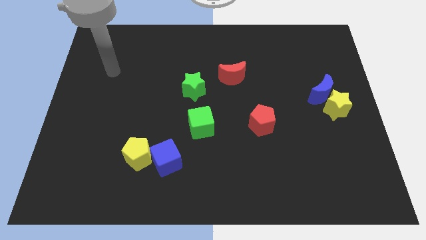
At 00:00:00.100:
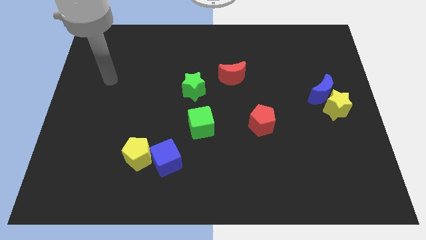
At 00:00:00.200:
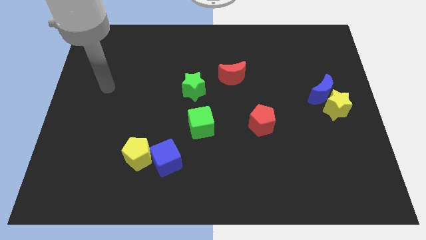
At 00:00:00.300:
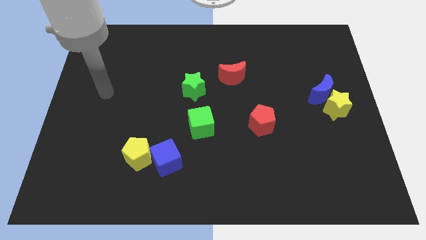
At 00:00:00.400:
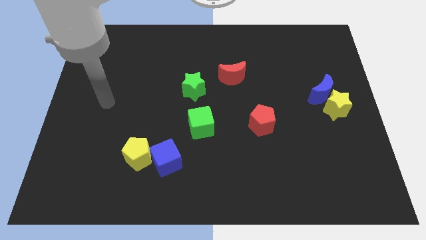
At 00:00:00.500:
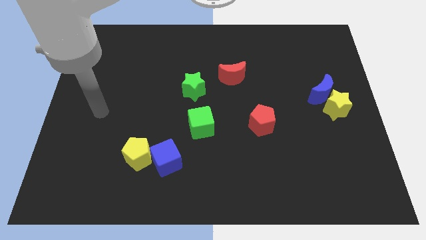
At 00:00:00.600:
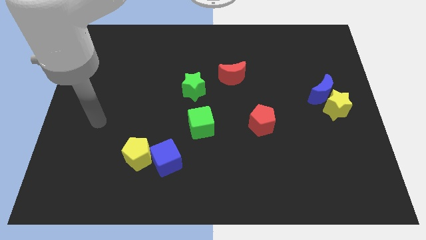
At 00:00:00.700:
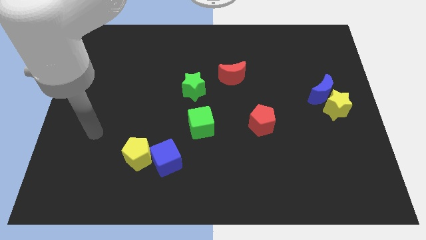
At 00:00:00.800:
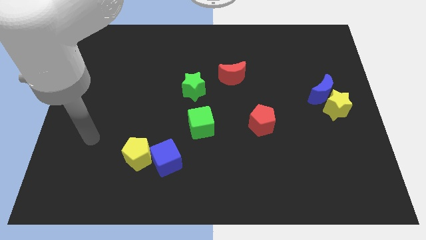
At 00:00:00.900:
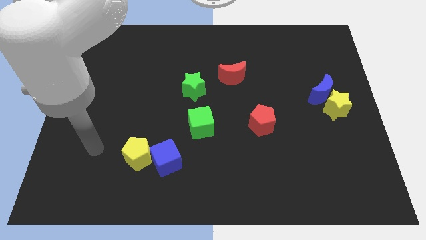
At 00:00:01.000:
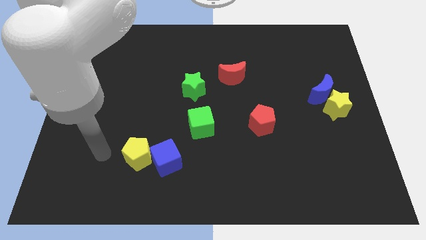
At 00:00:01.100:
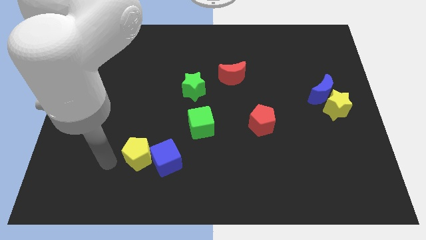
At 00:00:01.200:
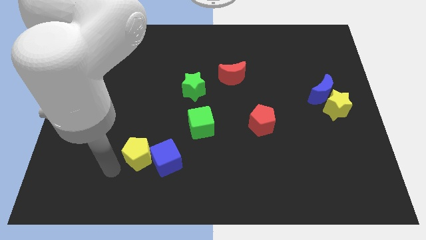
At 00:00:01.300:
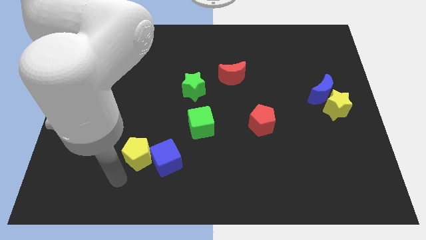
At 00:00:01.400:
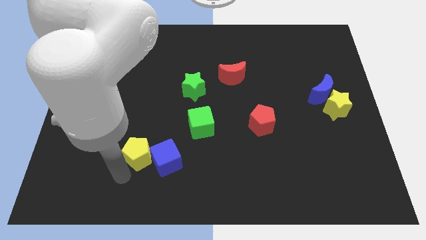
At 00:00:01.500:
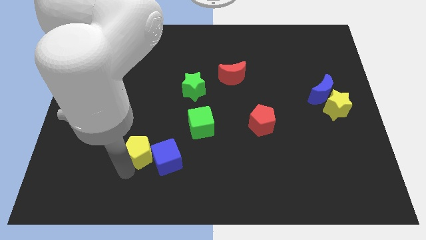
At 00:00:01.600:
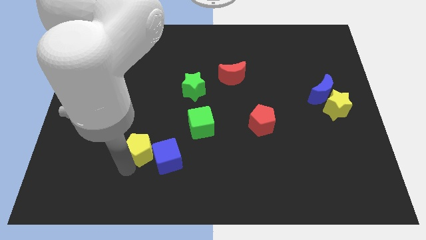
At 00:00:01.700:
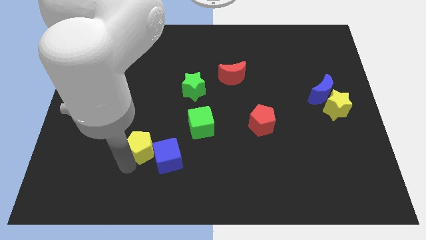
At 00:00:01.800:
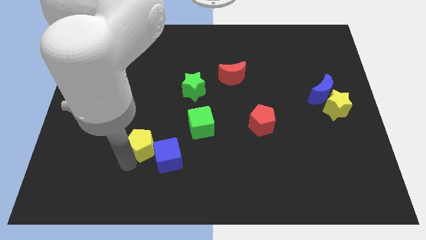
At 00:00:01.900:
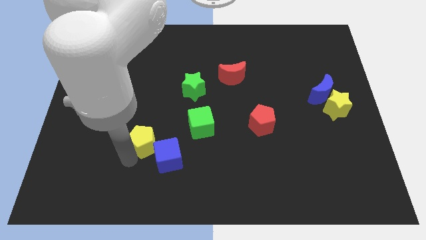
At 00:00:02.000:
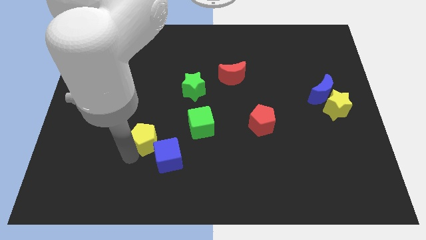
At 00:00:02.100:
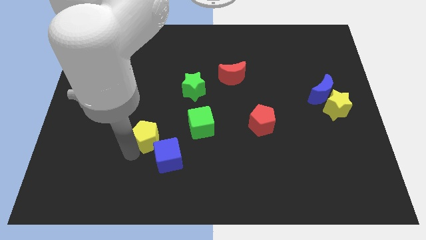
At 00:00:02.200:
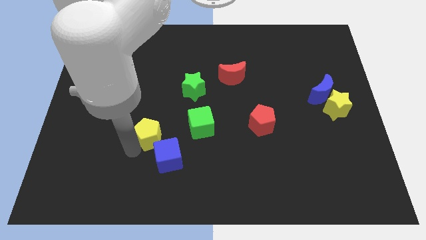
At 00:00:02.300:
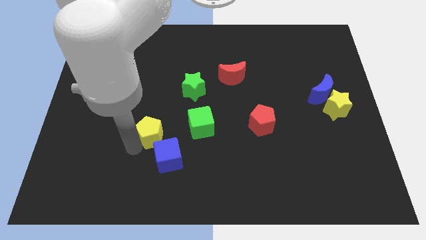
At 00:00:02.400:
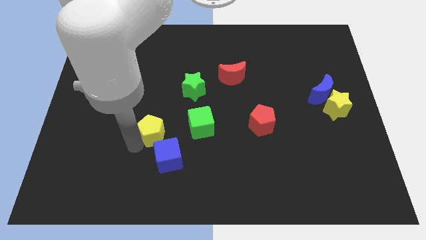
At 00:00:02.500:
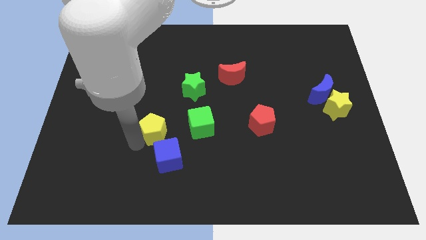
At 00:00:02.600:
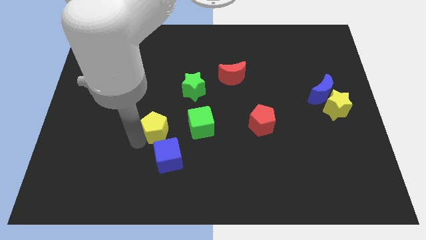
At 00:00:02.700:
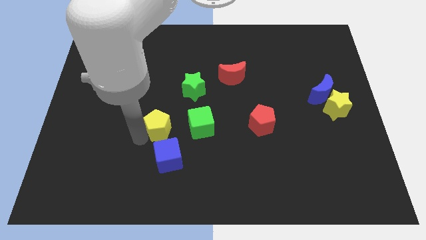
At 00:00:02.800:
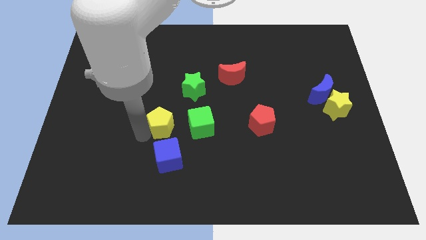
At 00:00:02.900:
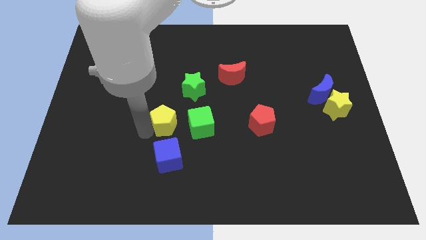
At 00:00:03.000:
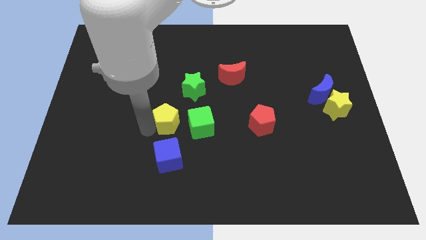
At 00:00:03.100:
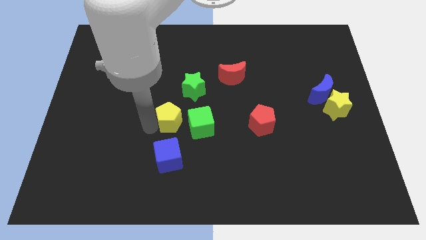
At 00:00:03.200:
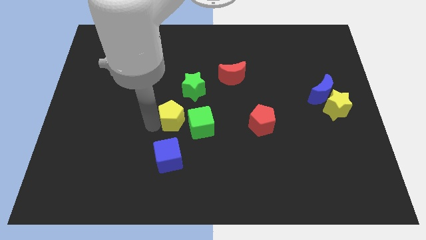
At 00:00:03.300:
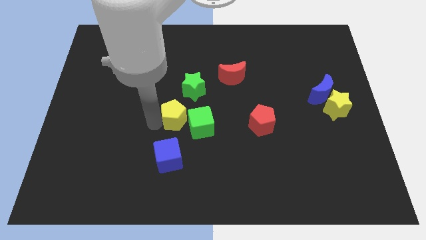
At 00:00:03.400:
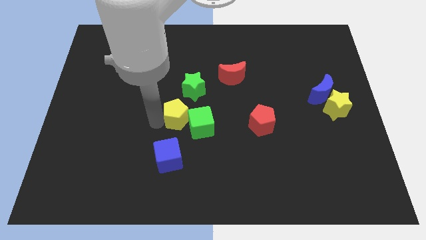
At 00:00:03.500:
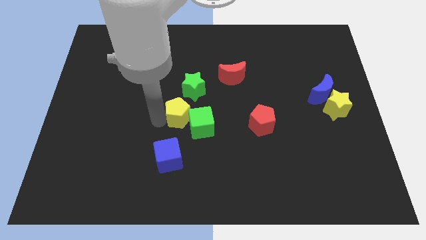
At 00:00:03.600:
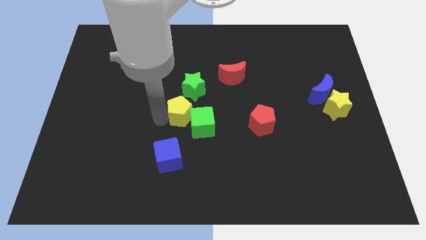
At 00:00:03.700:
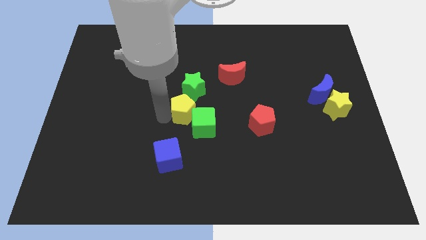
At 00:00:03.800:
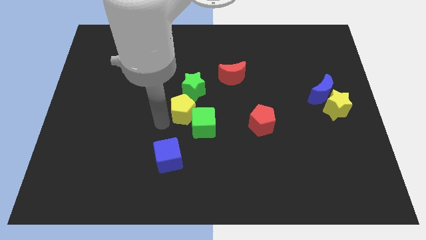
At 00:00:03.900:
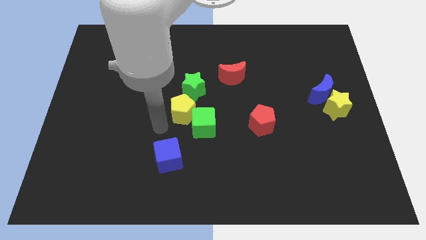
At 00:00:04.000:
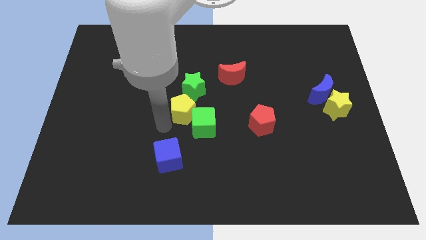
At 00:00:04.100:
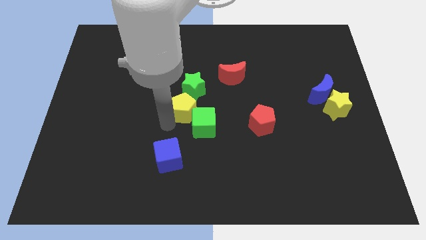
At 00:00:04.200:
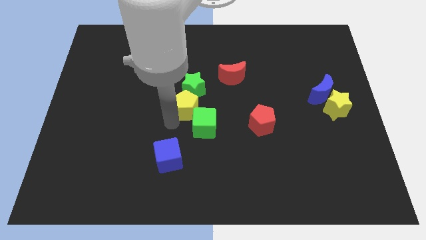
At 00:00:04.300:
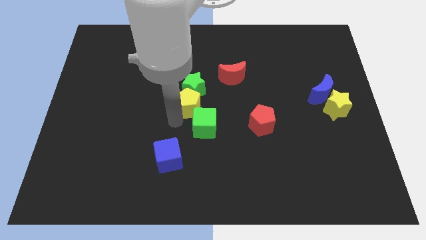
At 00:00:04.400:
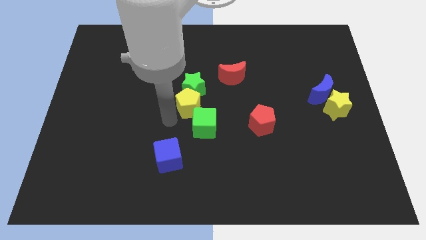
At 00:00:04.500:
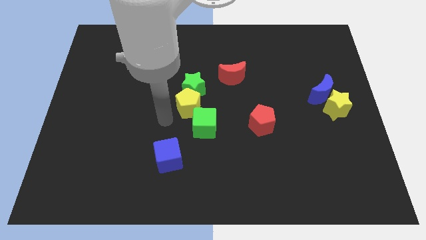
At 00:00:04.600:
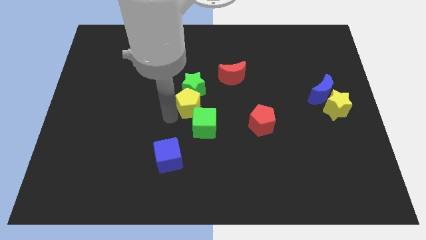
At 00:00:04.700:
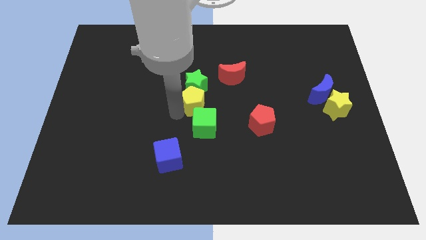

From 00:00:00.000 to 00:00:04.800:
put the yellow pentagon to the bottom left of the red moon

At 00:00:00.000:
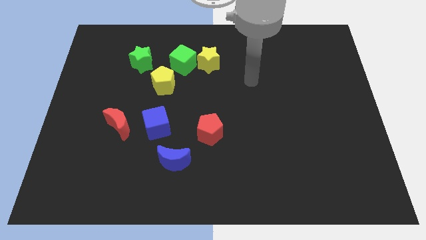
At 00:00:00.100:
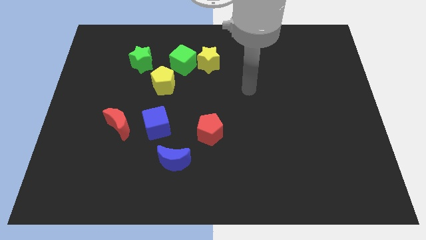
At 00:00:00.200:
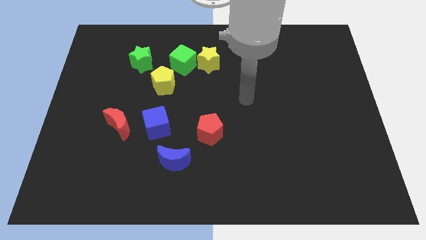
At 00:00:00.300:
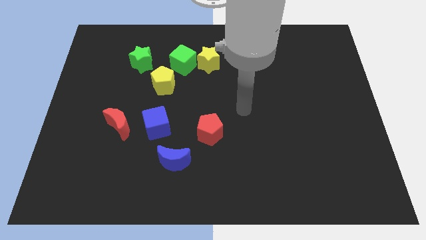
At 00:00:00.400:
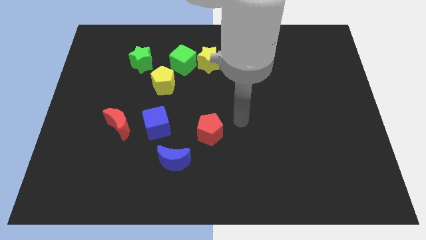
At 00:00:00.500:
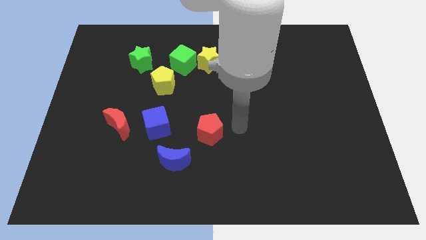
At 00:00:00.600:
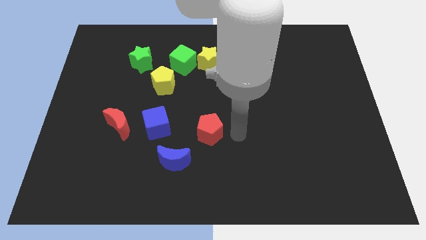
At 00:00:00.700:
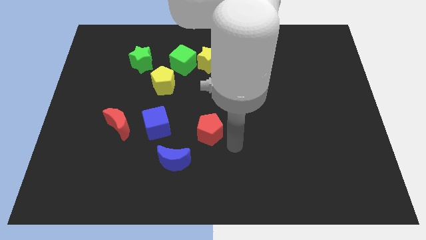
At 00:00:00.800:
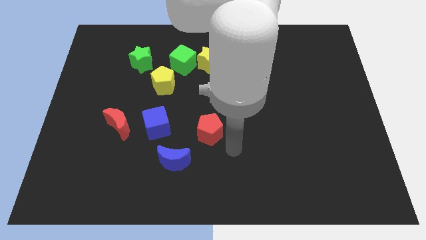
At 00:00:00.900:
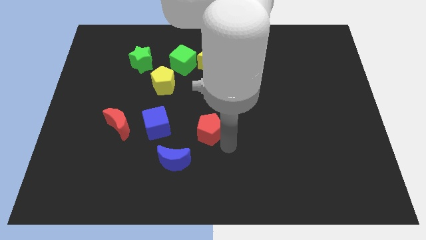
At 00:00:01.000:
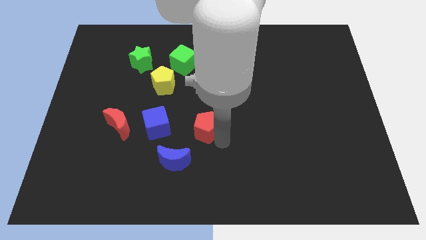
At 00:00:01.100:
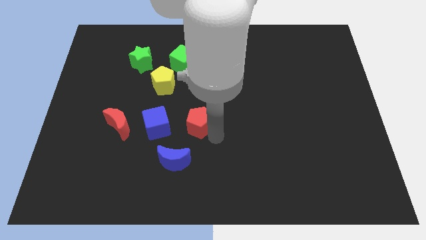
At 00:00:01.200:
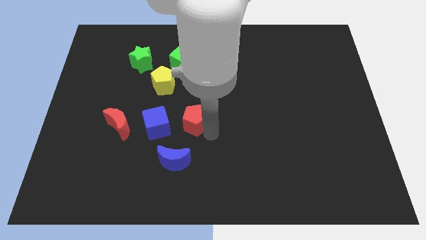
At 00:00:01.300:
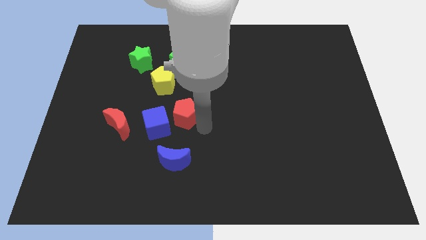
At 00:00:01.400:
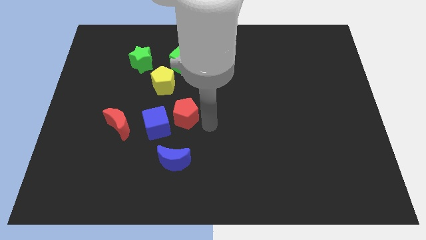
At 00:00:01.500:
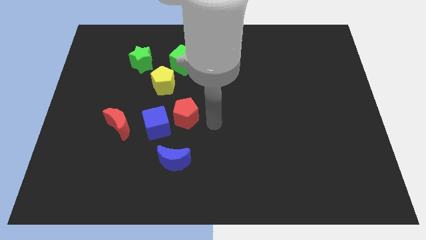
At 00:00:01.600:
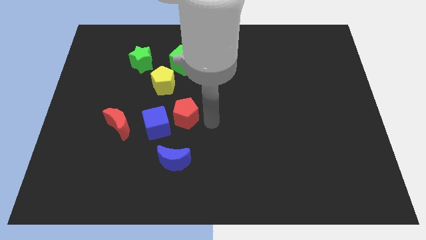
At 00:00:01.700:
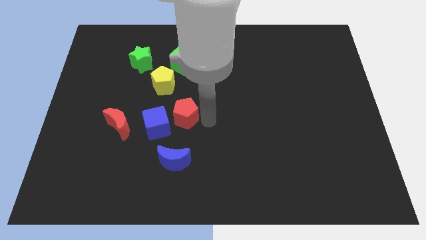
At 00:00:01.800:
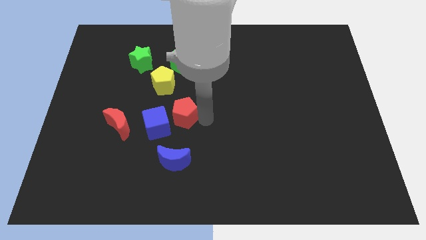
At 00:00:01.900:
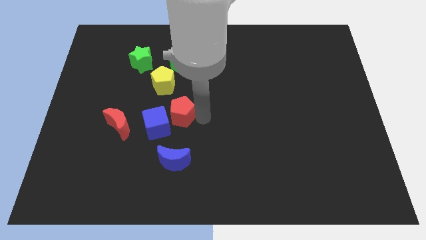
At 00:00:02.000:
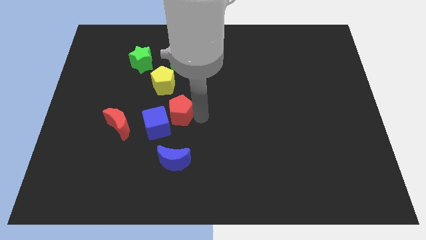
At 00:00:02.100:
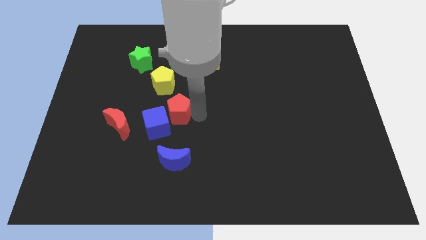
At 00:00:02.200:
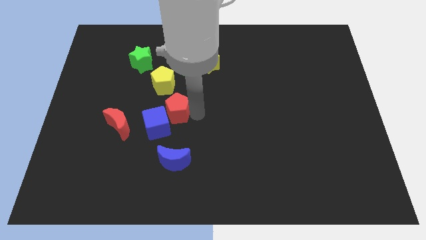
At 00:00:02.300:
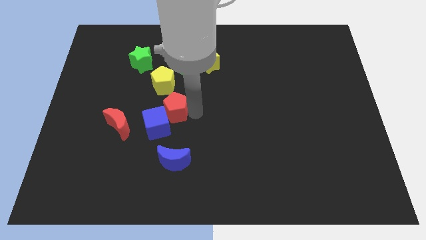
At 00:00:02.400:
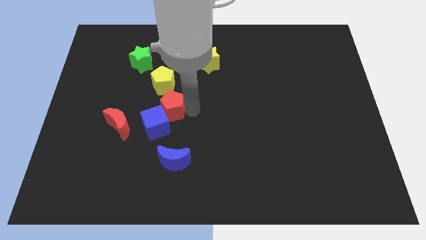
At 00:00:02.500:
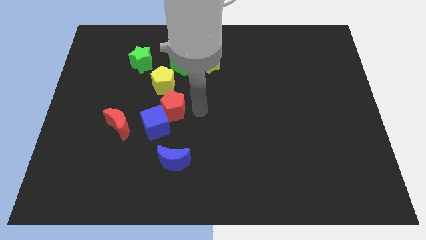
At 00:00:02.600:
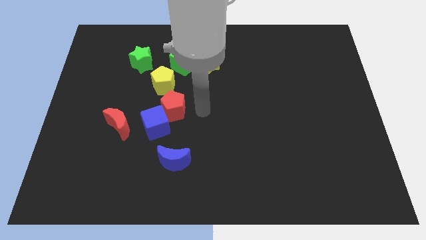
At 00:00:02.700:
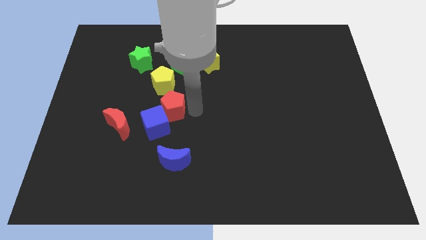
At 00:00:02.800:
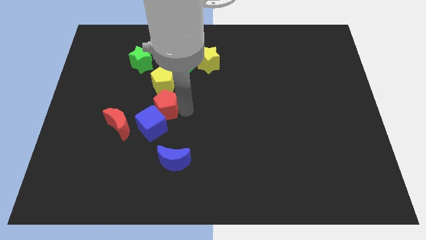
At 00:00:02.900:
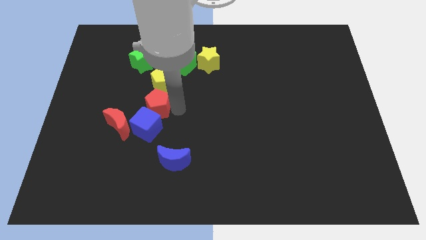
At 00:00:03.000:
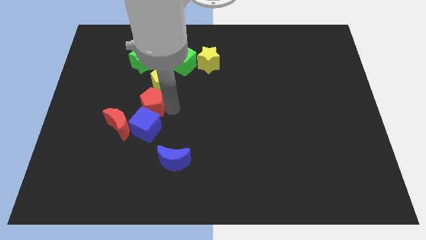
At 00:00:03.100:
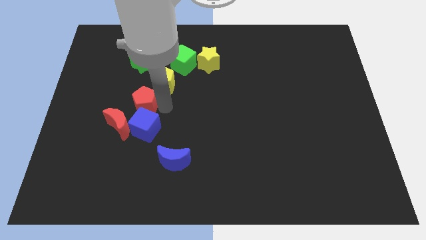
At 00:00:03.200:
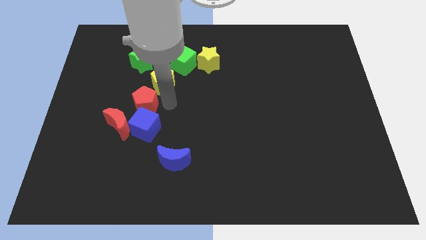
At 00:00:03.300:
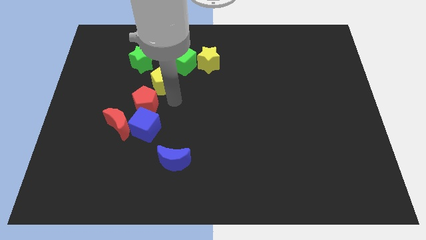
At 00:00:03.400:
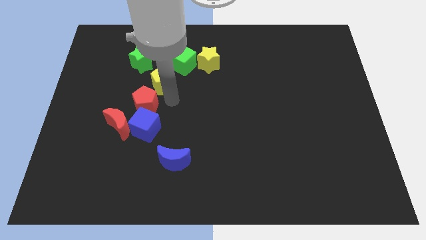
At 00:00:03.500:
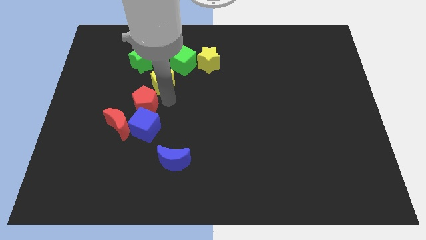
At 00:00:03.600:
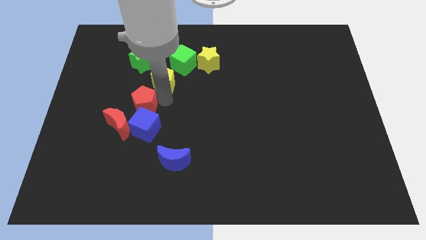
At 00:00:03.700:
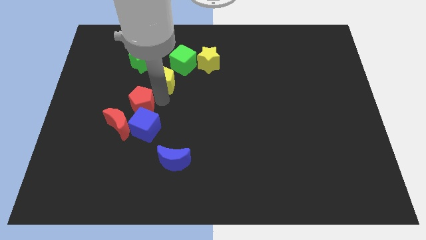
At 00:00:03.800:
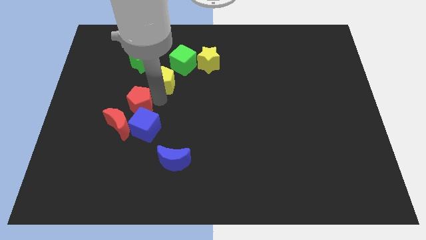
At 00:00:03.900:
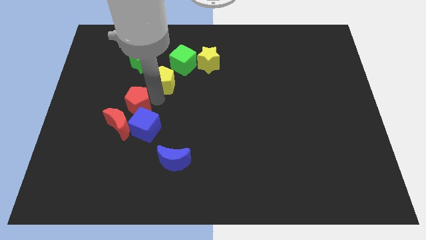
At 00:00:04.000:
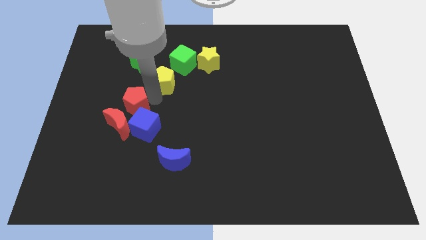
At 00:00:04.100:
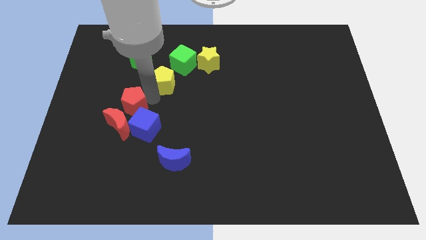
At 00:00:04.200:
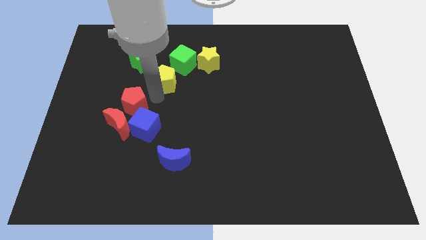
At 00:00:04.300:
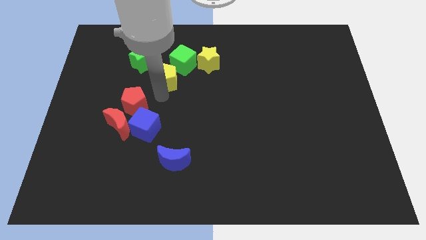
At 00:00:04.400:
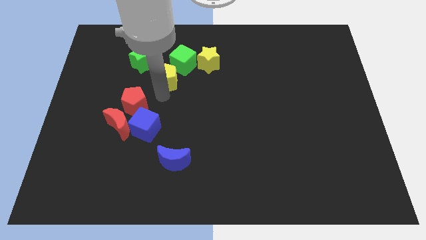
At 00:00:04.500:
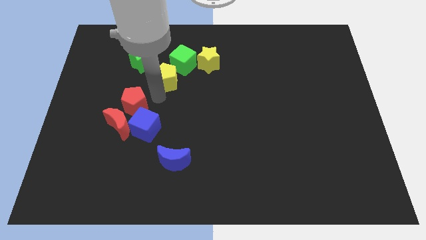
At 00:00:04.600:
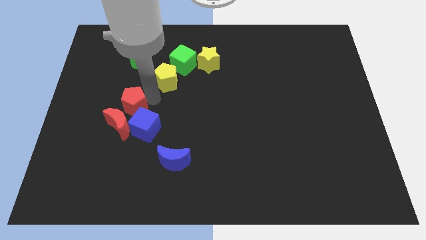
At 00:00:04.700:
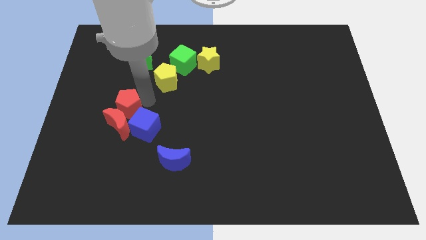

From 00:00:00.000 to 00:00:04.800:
move the red pentagon diagonally up and to the left of the red moon
